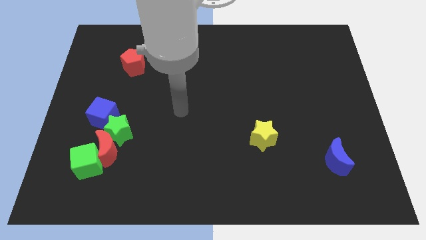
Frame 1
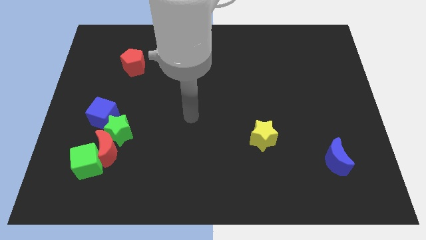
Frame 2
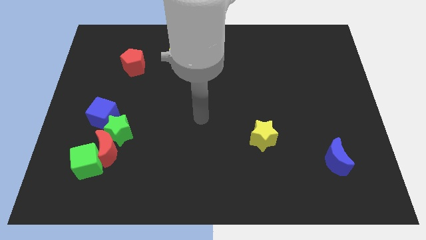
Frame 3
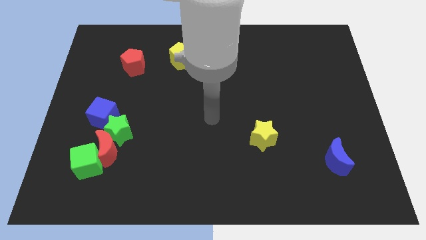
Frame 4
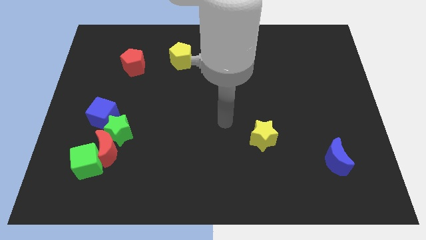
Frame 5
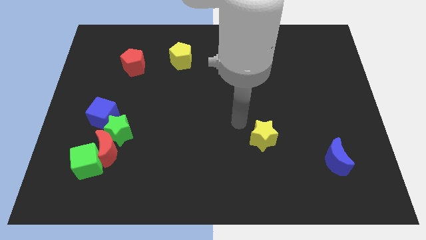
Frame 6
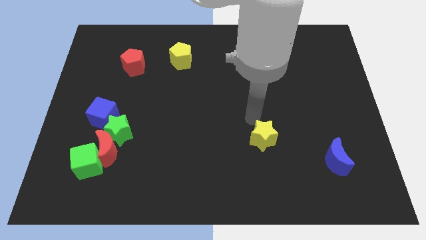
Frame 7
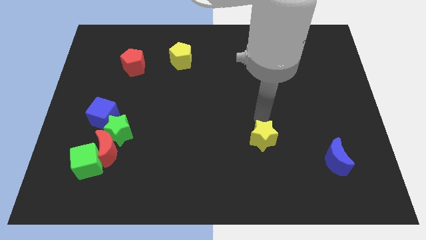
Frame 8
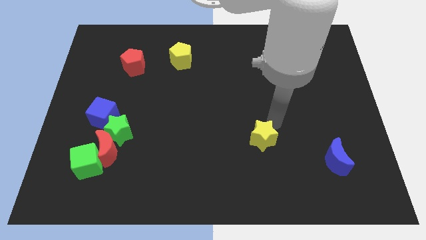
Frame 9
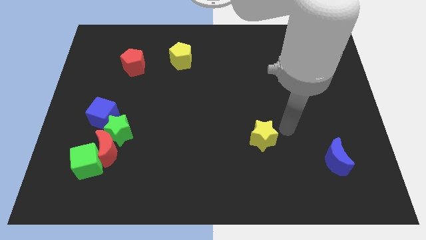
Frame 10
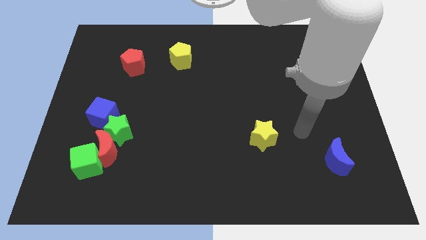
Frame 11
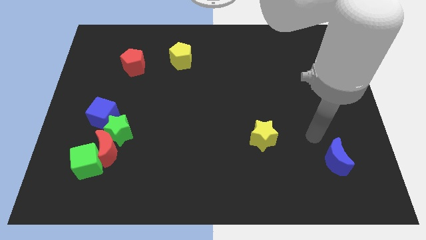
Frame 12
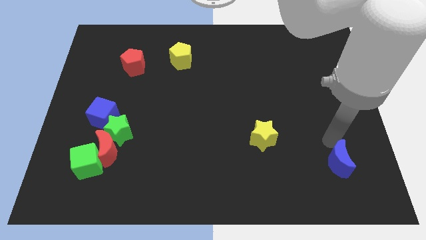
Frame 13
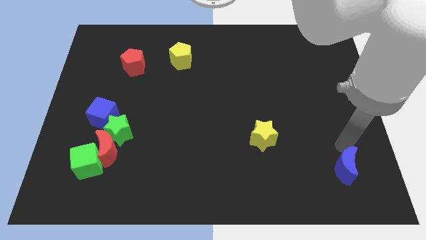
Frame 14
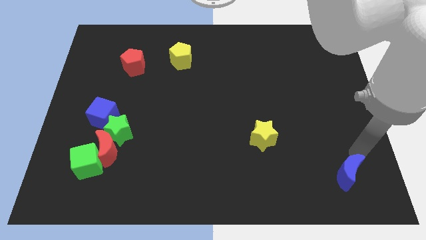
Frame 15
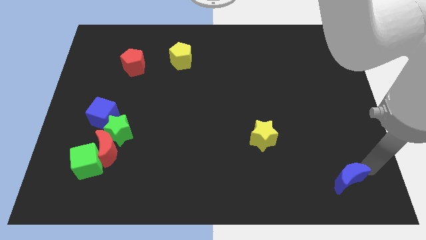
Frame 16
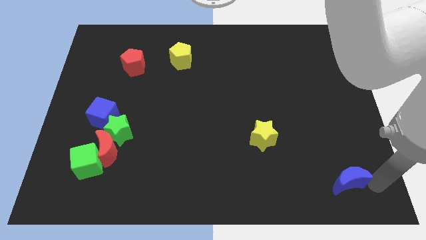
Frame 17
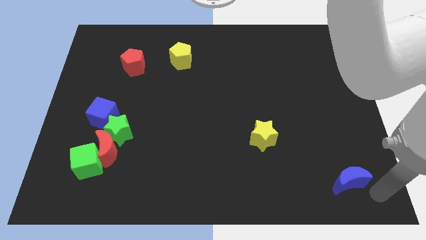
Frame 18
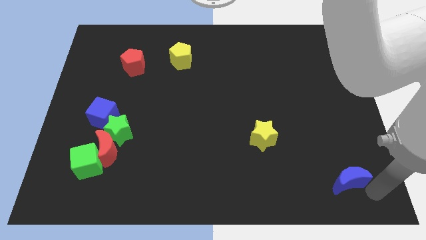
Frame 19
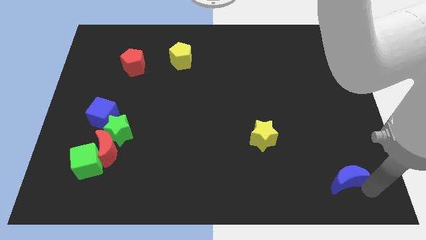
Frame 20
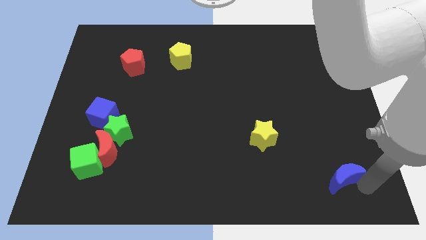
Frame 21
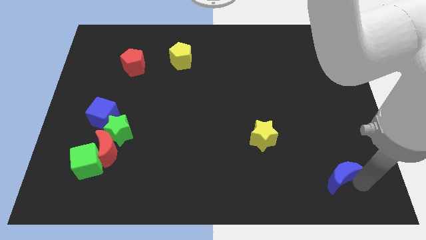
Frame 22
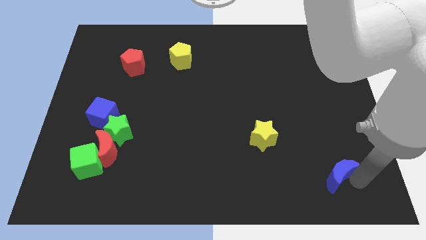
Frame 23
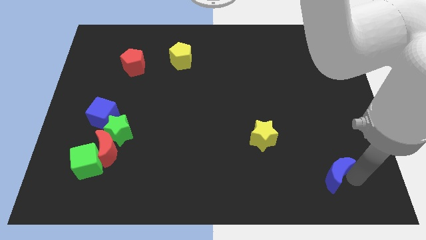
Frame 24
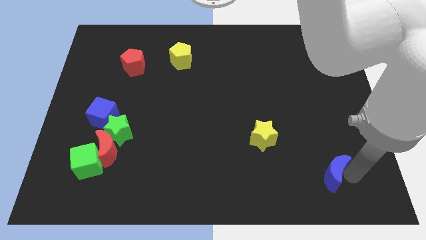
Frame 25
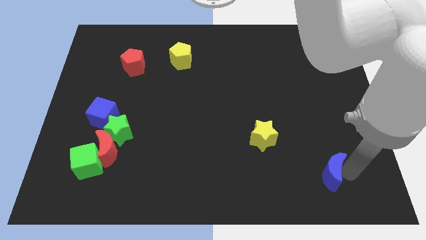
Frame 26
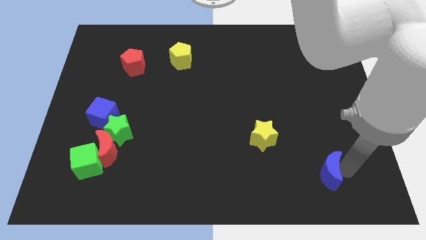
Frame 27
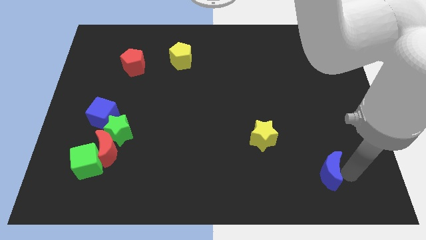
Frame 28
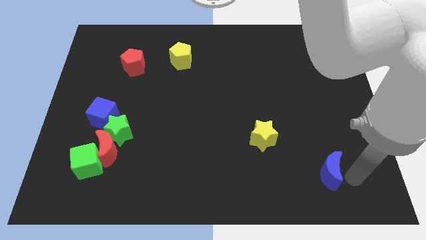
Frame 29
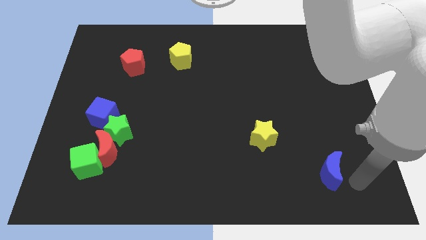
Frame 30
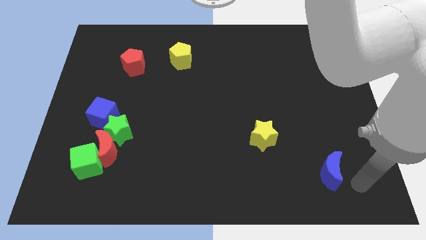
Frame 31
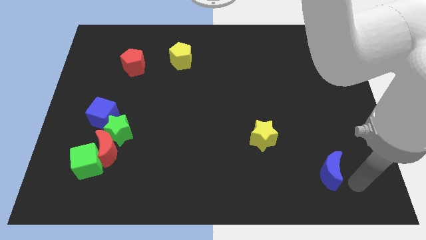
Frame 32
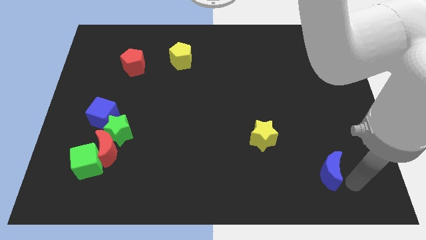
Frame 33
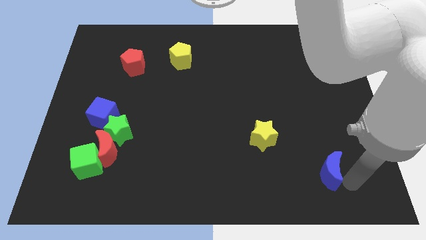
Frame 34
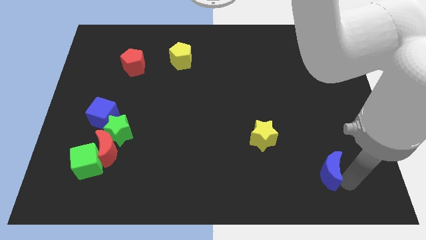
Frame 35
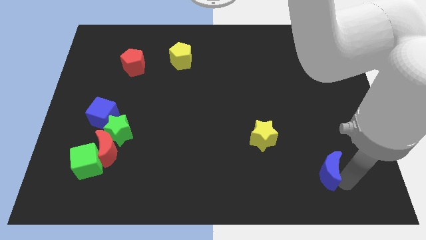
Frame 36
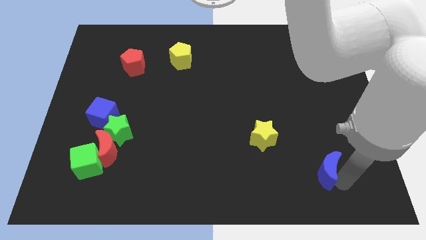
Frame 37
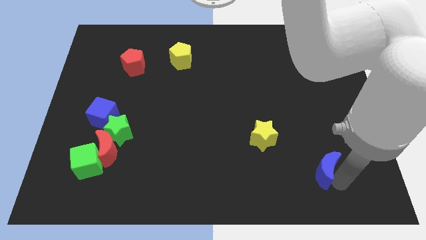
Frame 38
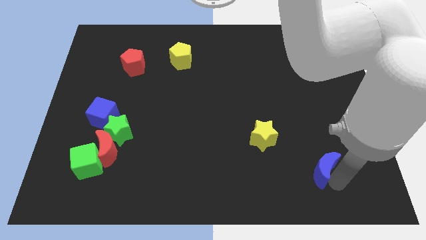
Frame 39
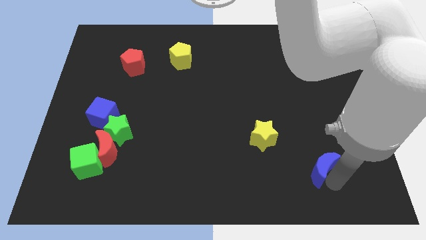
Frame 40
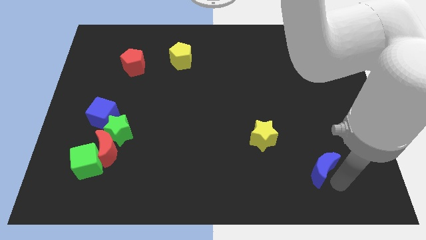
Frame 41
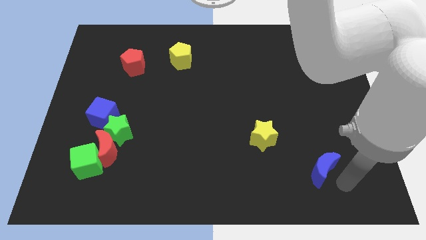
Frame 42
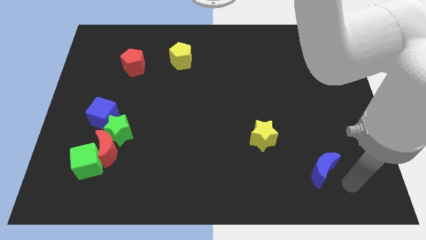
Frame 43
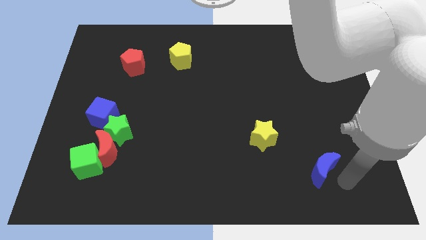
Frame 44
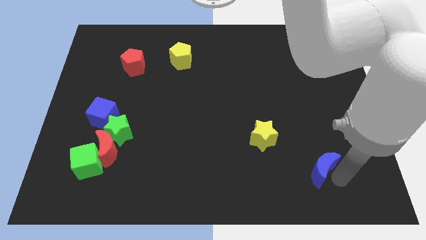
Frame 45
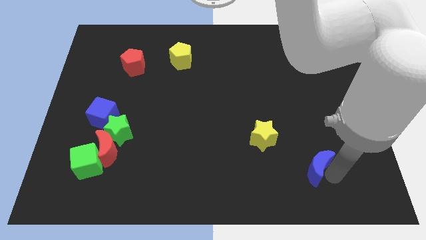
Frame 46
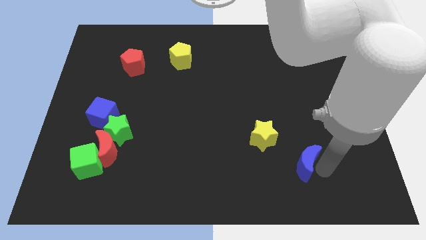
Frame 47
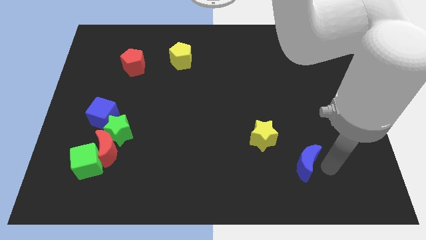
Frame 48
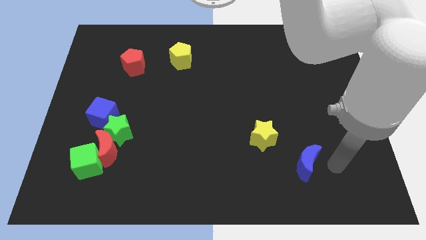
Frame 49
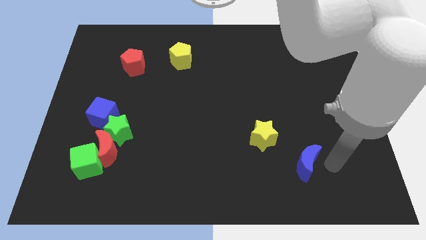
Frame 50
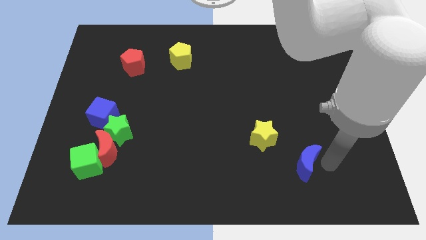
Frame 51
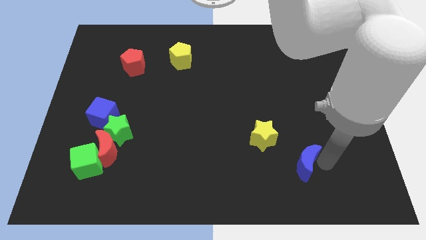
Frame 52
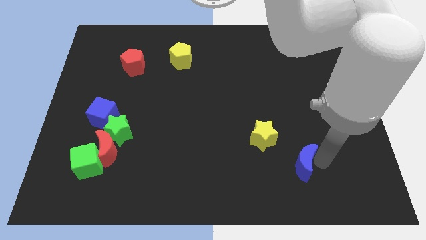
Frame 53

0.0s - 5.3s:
slide the blue moon left a little bit

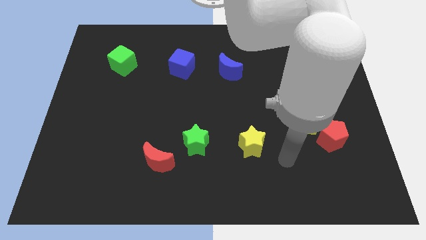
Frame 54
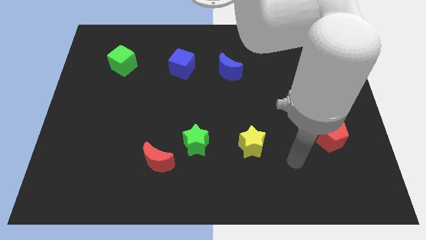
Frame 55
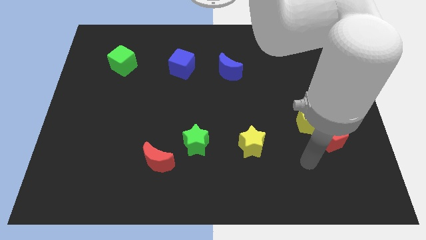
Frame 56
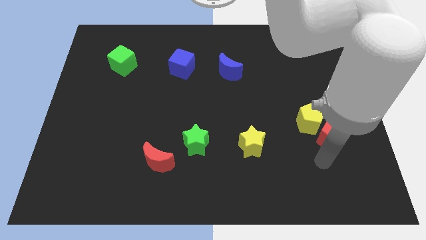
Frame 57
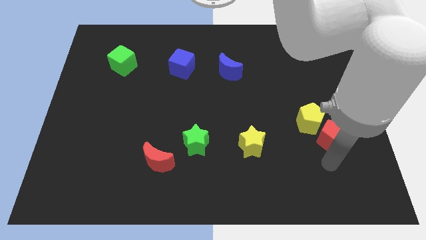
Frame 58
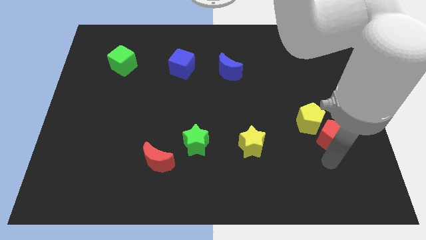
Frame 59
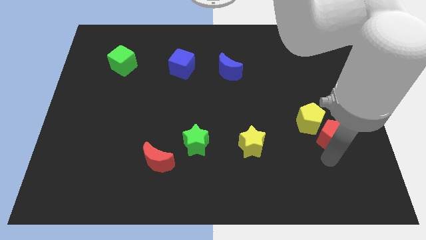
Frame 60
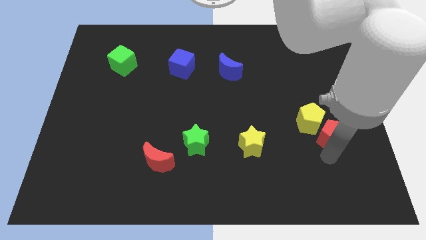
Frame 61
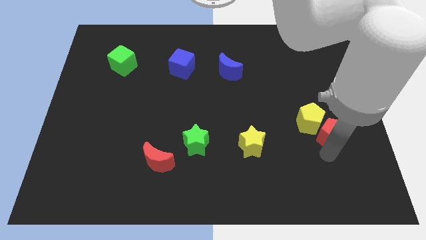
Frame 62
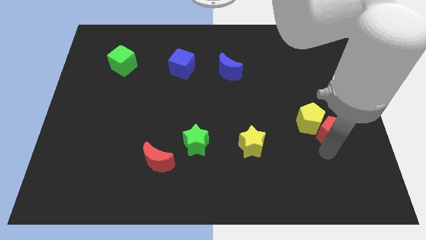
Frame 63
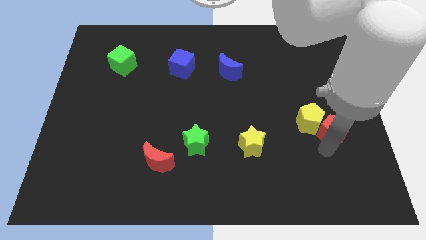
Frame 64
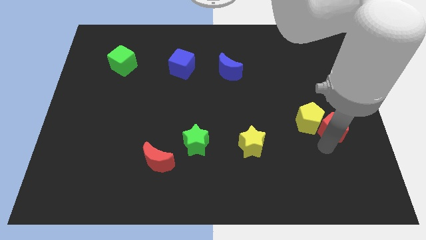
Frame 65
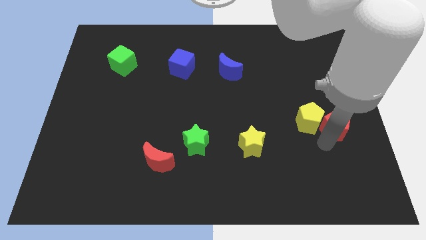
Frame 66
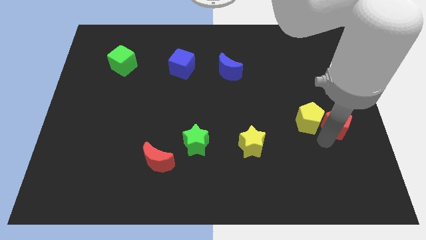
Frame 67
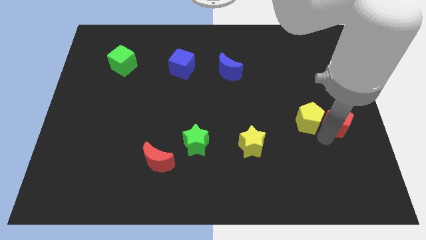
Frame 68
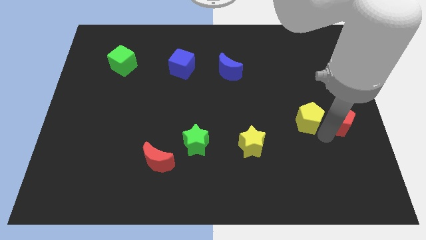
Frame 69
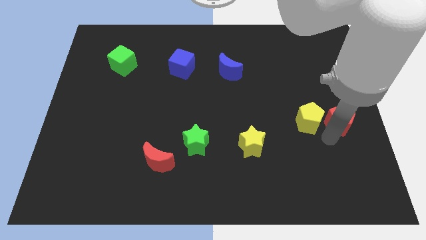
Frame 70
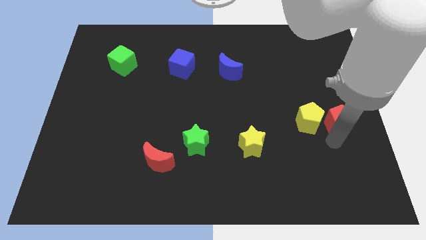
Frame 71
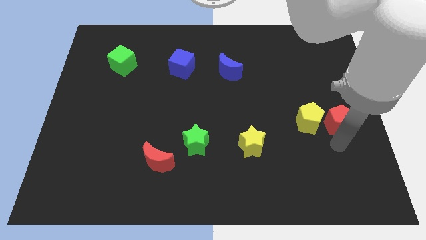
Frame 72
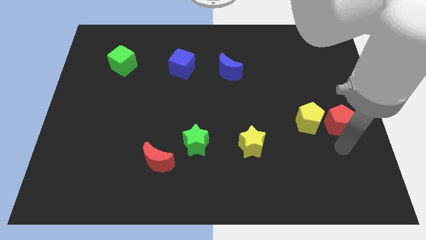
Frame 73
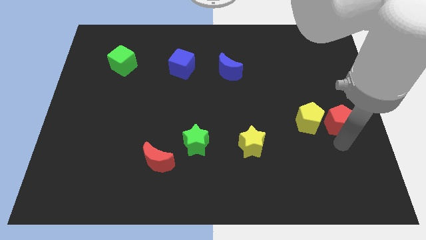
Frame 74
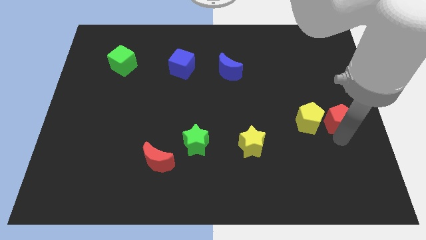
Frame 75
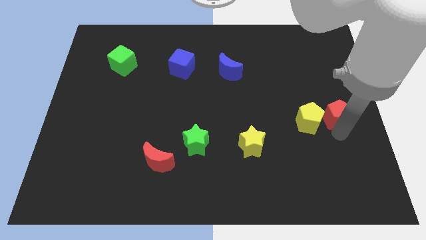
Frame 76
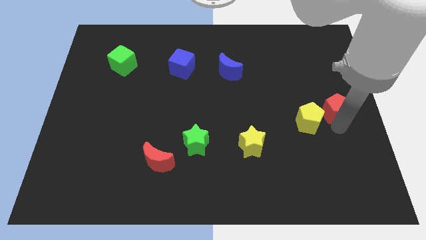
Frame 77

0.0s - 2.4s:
push the red pentagon up a bit

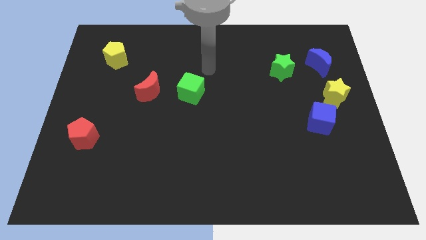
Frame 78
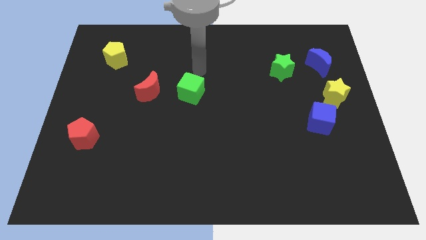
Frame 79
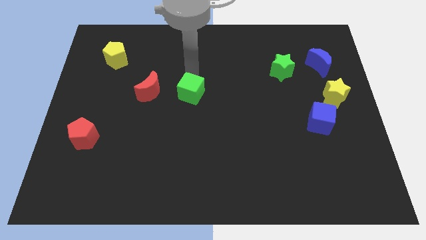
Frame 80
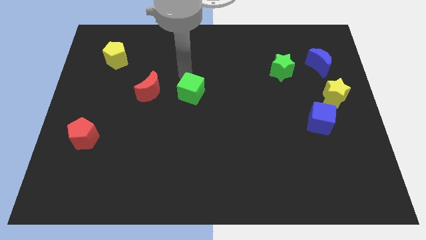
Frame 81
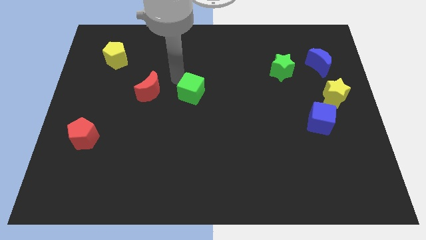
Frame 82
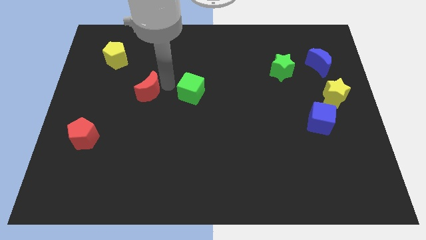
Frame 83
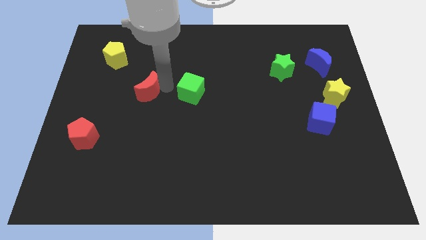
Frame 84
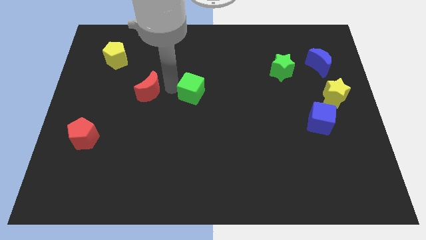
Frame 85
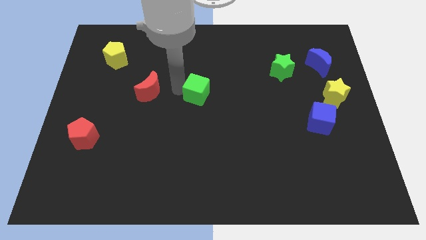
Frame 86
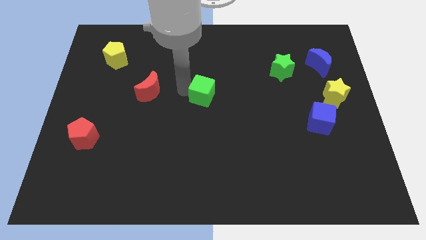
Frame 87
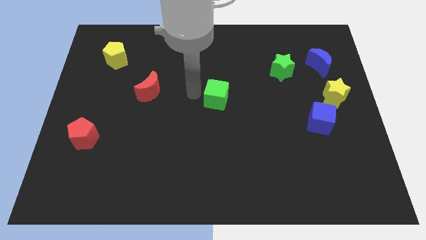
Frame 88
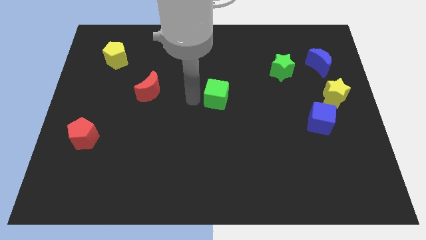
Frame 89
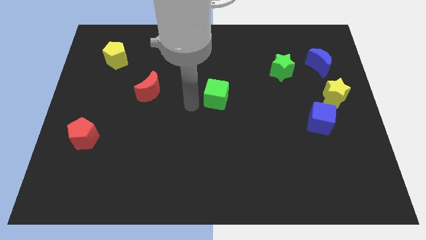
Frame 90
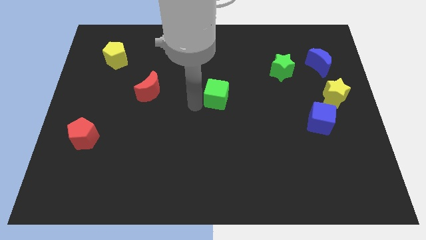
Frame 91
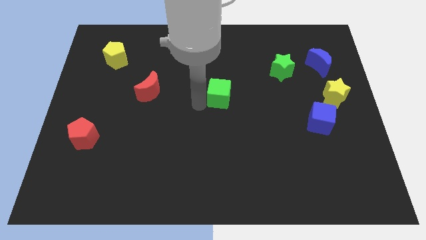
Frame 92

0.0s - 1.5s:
push the green cube to the right somewhat
